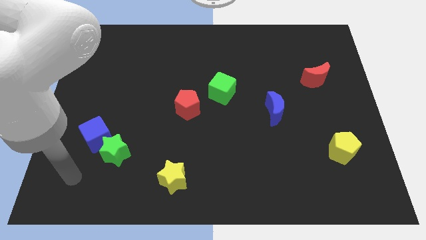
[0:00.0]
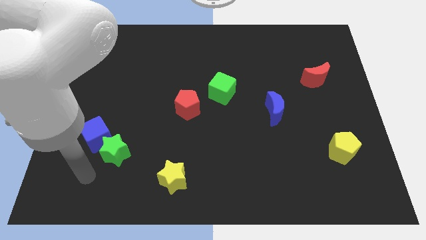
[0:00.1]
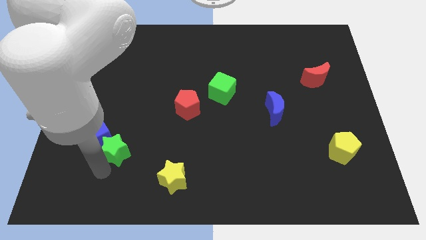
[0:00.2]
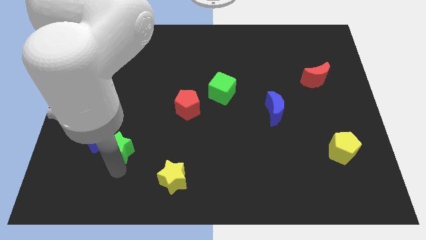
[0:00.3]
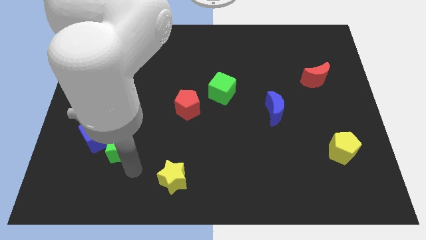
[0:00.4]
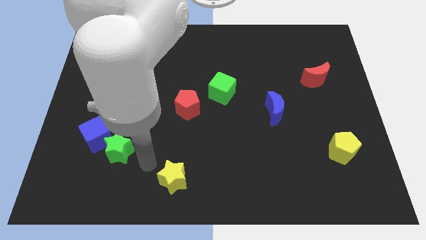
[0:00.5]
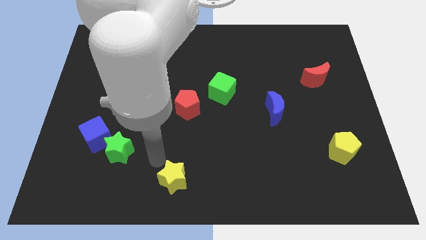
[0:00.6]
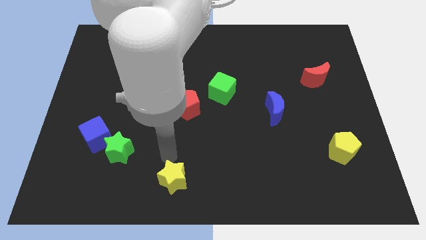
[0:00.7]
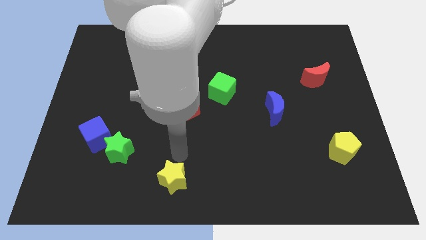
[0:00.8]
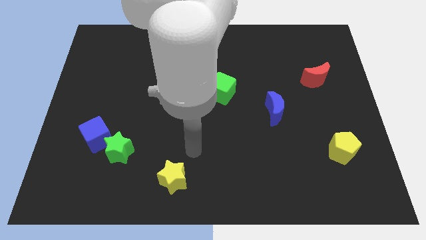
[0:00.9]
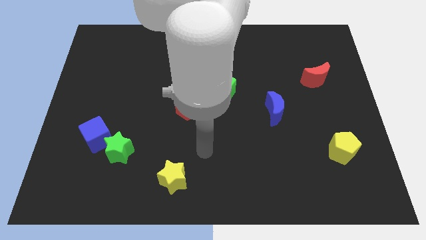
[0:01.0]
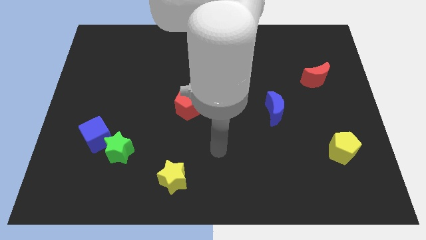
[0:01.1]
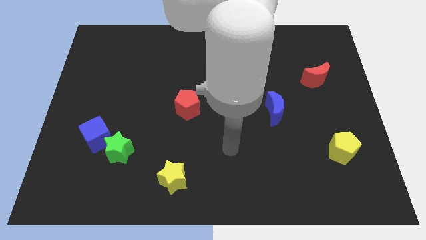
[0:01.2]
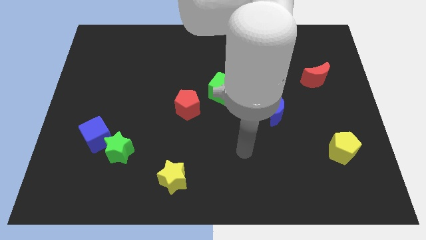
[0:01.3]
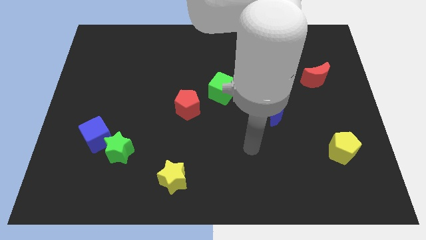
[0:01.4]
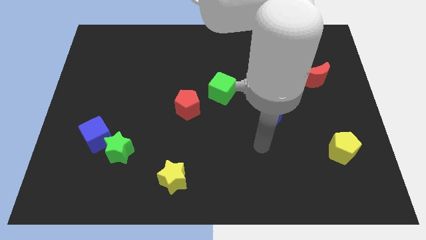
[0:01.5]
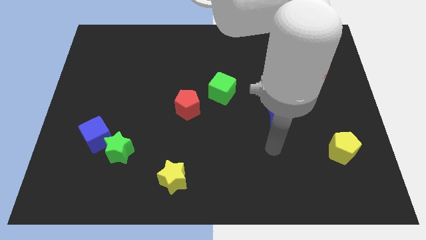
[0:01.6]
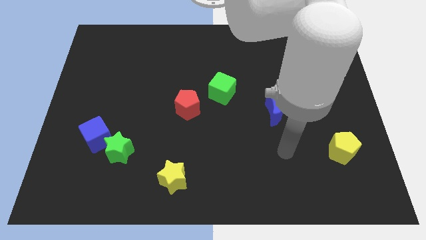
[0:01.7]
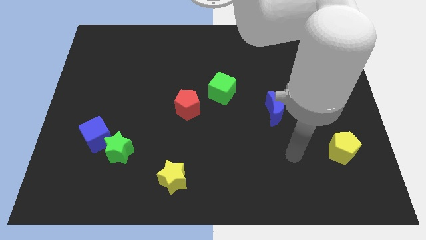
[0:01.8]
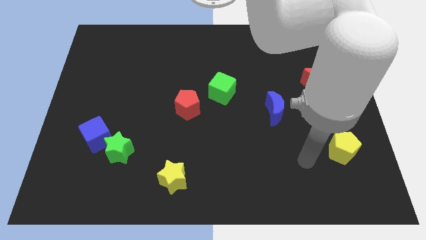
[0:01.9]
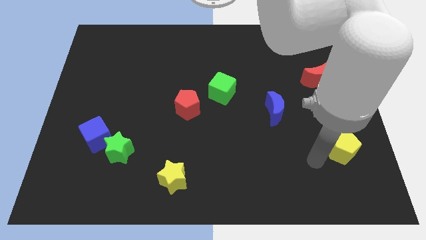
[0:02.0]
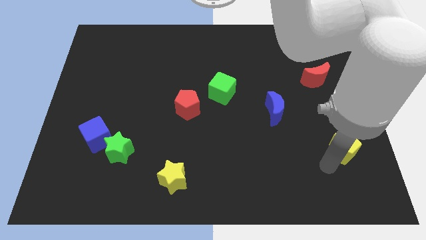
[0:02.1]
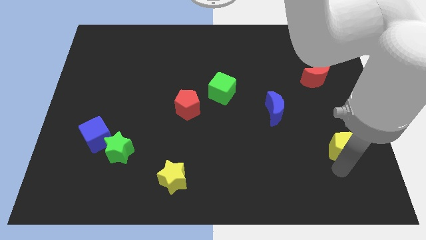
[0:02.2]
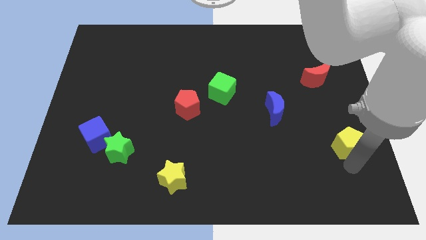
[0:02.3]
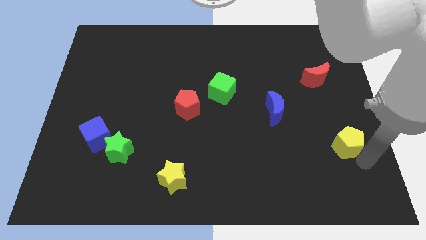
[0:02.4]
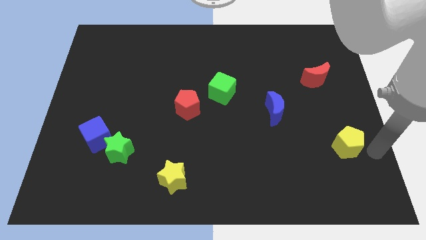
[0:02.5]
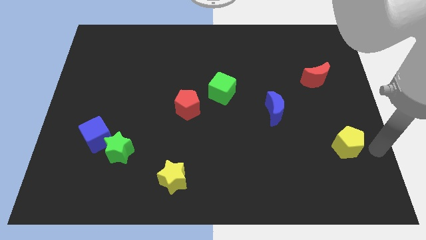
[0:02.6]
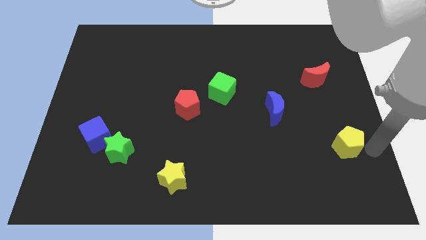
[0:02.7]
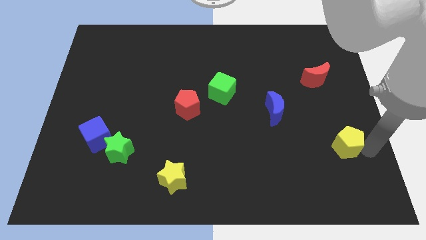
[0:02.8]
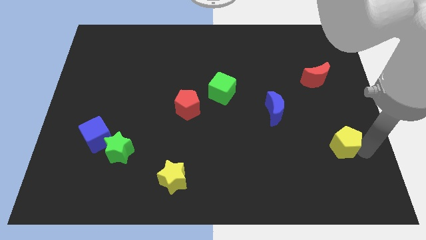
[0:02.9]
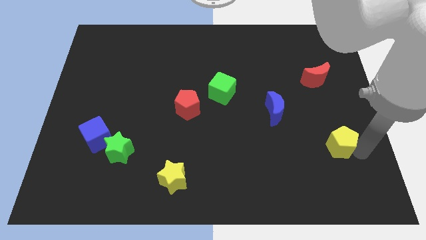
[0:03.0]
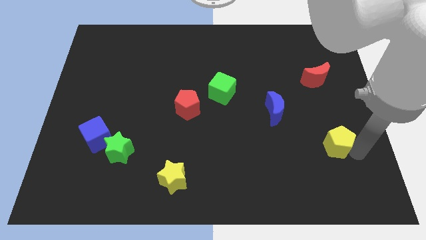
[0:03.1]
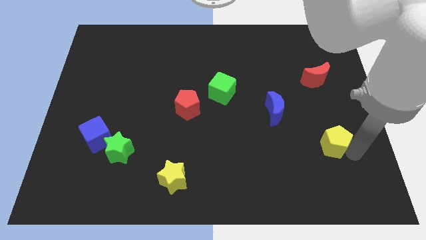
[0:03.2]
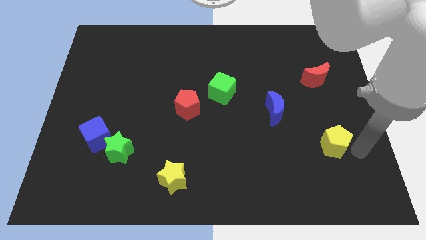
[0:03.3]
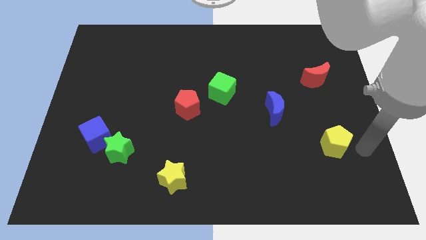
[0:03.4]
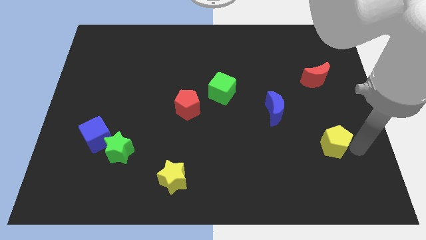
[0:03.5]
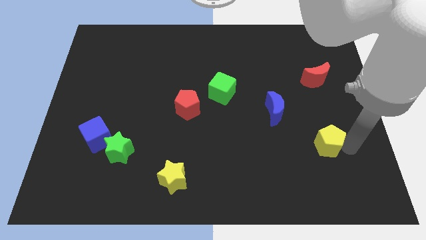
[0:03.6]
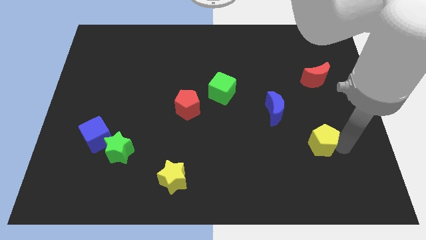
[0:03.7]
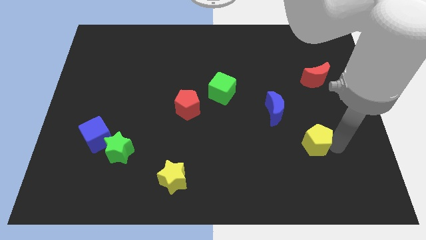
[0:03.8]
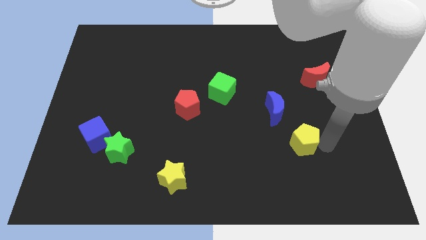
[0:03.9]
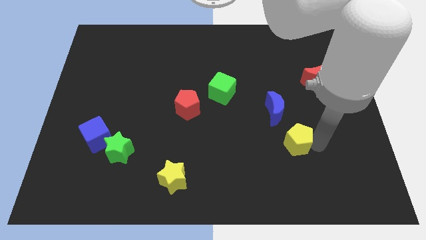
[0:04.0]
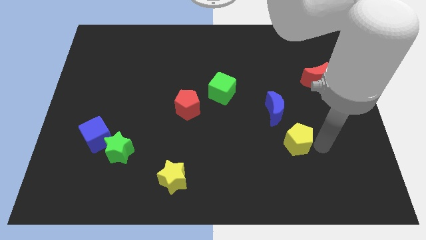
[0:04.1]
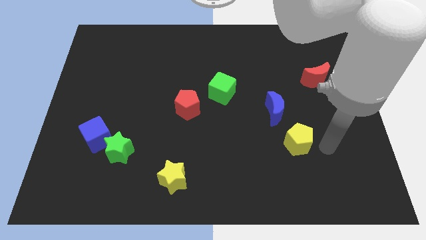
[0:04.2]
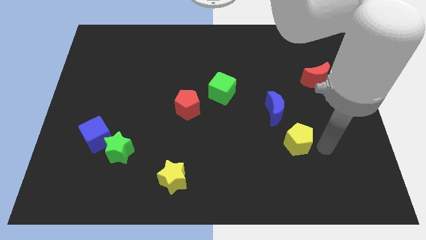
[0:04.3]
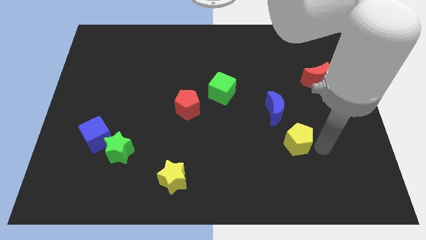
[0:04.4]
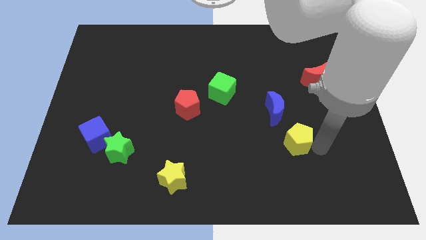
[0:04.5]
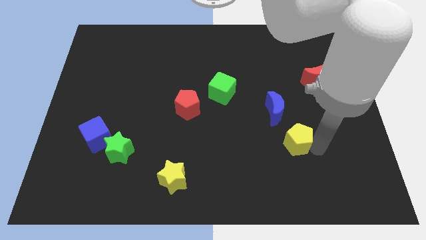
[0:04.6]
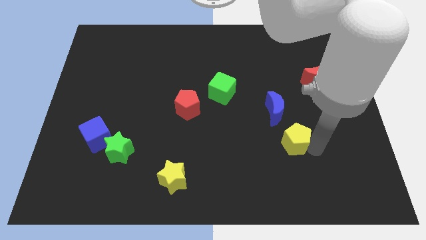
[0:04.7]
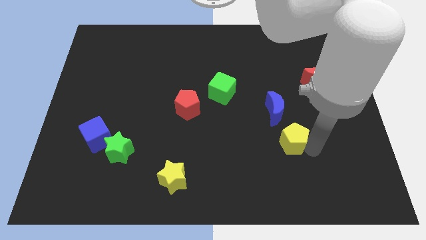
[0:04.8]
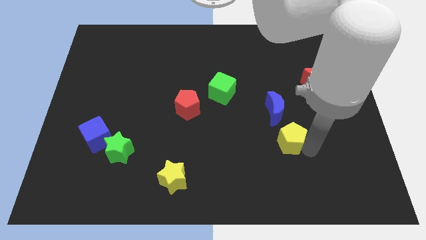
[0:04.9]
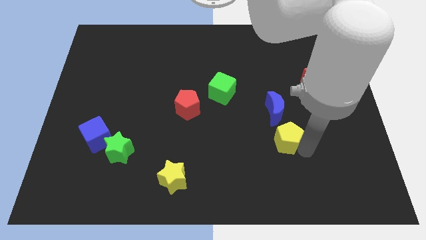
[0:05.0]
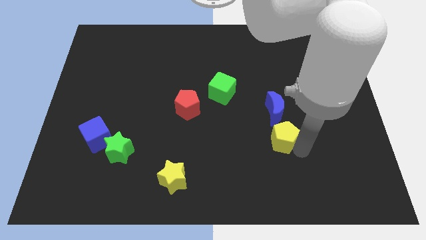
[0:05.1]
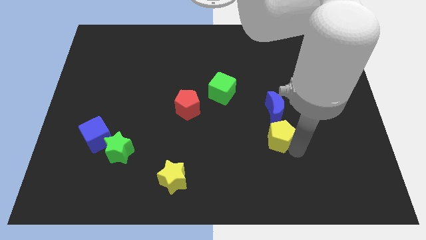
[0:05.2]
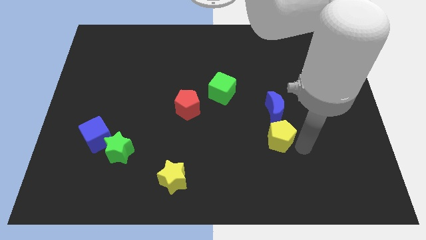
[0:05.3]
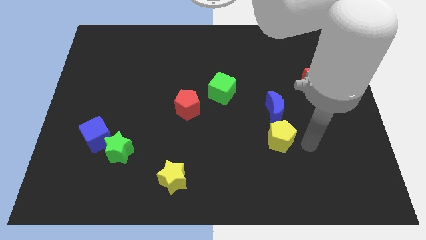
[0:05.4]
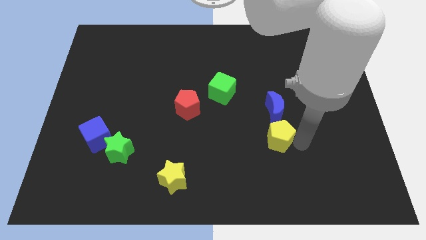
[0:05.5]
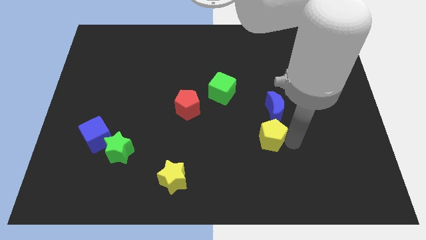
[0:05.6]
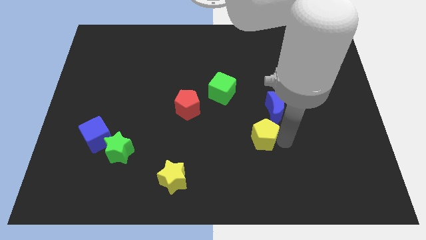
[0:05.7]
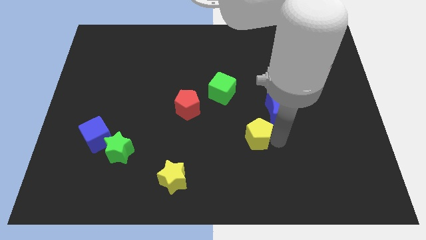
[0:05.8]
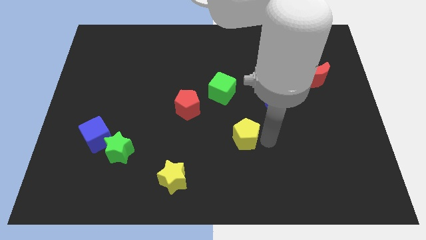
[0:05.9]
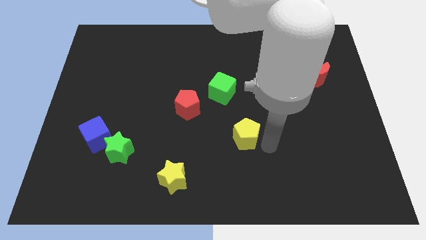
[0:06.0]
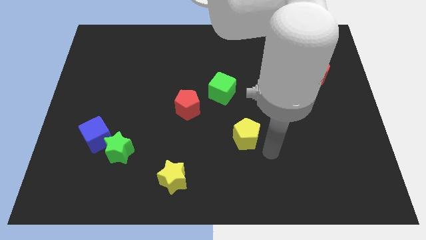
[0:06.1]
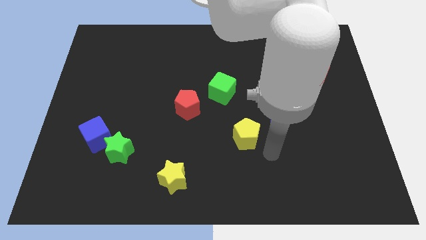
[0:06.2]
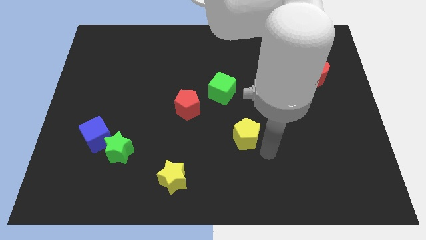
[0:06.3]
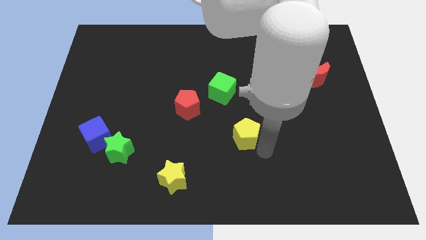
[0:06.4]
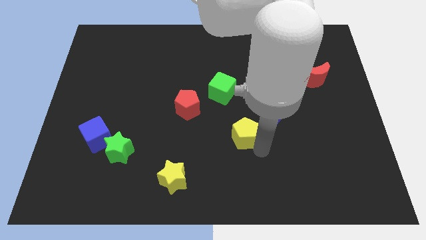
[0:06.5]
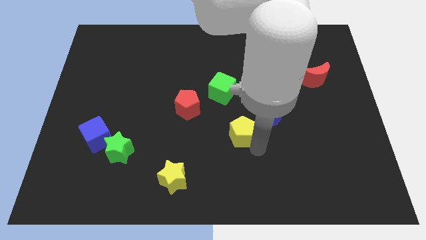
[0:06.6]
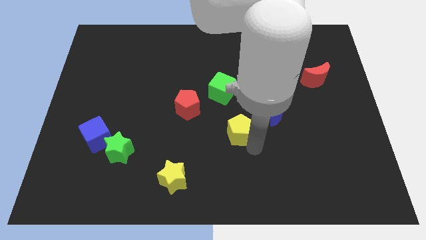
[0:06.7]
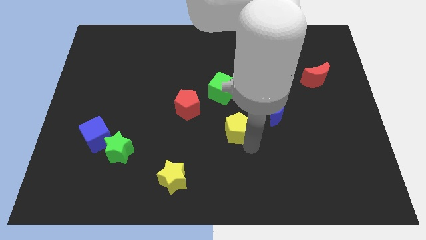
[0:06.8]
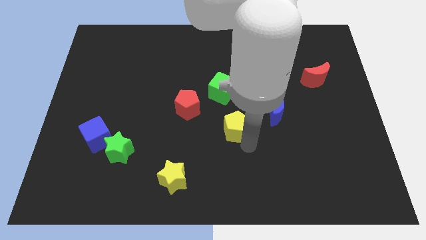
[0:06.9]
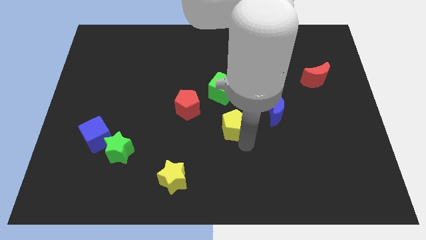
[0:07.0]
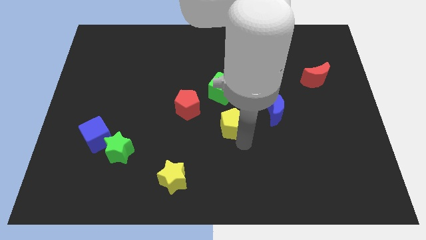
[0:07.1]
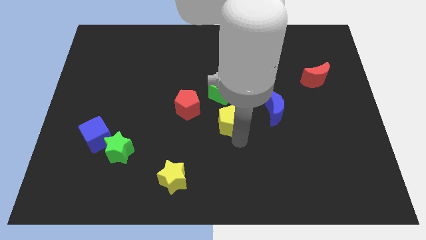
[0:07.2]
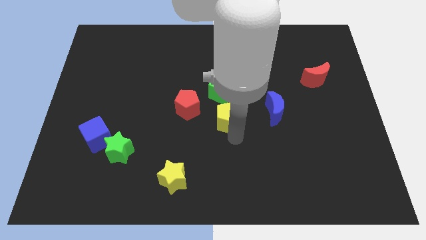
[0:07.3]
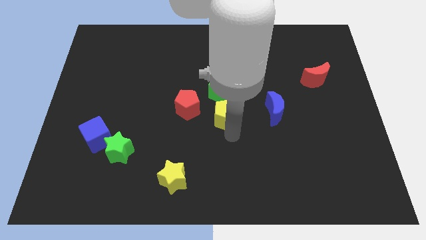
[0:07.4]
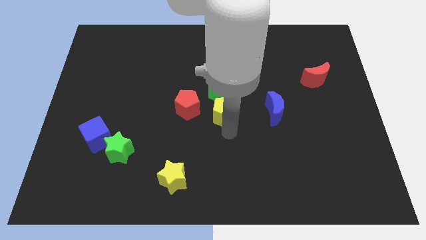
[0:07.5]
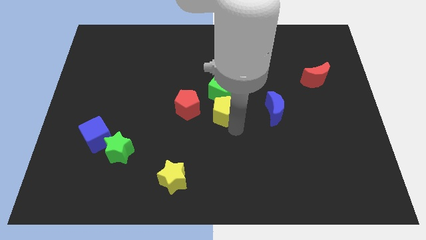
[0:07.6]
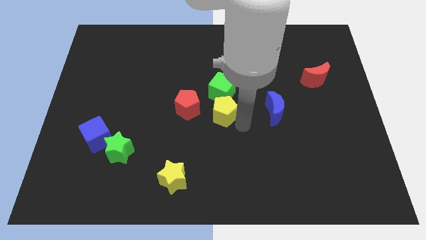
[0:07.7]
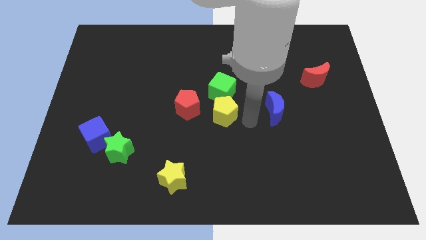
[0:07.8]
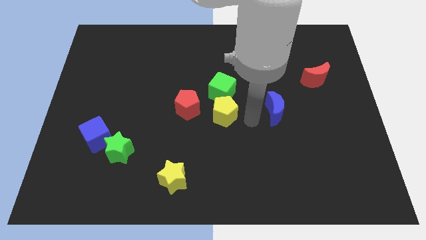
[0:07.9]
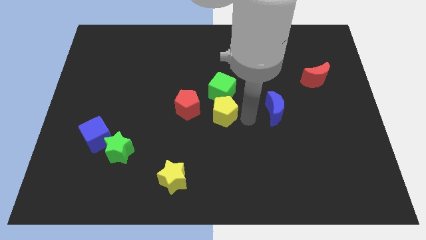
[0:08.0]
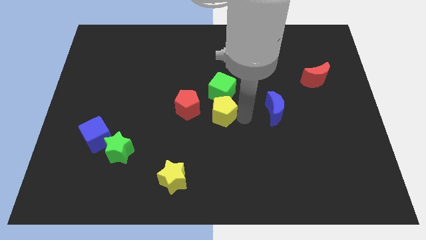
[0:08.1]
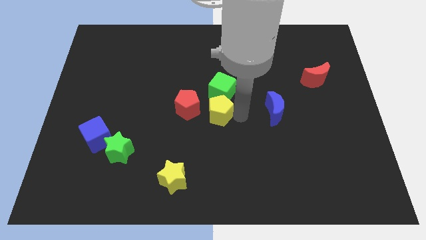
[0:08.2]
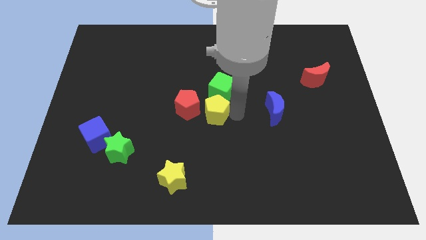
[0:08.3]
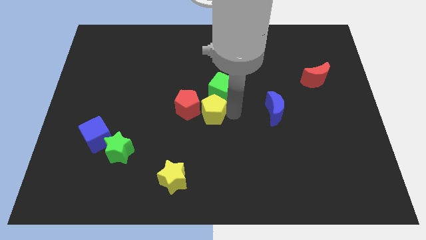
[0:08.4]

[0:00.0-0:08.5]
slide the yellow pentagon to the red pentagon
